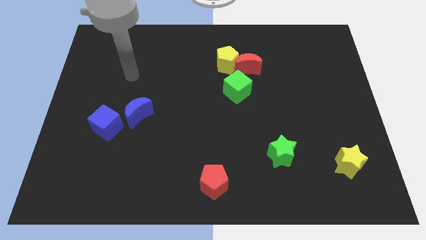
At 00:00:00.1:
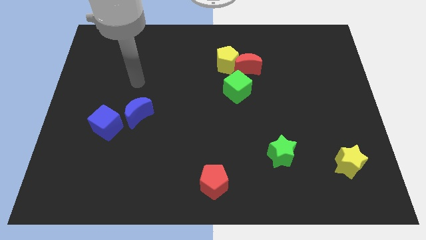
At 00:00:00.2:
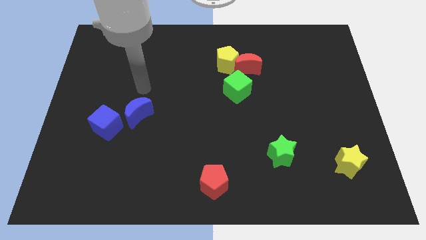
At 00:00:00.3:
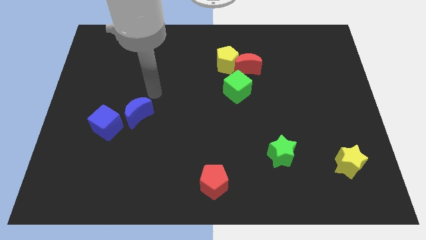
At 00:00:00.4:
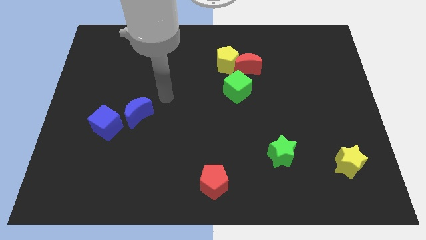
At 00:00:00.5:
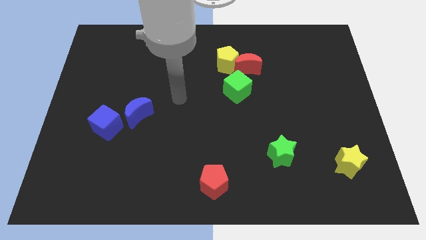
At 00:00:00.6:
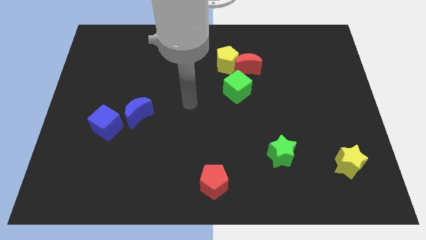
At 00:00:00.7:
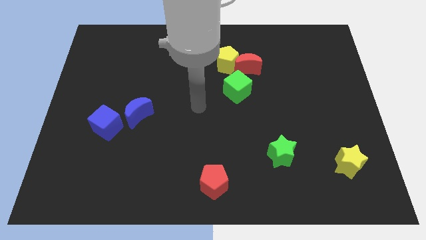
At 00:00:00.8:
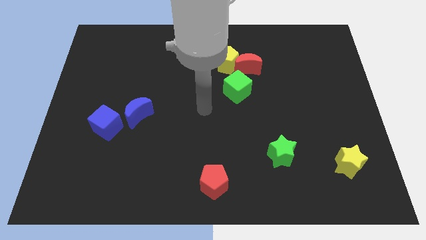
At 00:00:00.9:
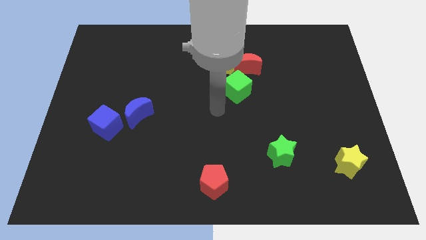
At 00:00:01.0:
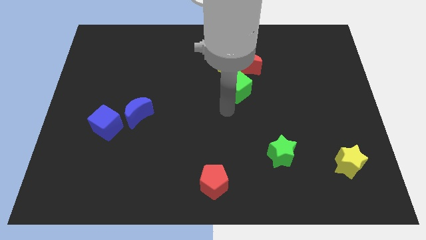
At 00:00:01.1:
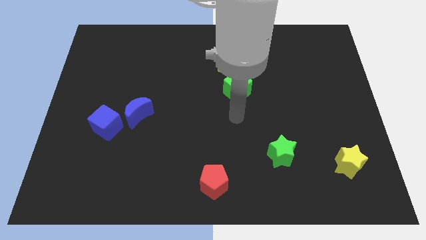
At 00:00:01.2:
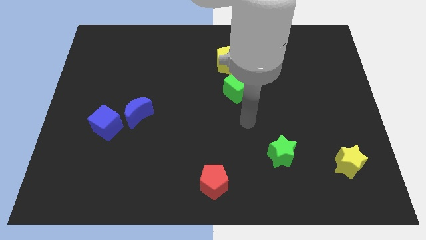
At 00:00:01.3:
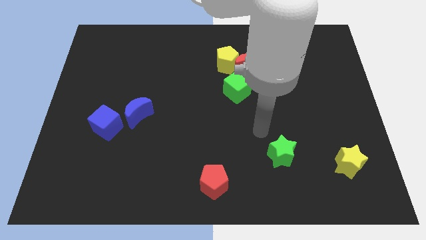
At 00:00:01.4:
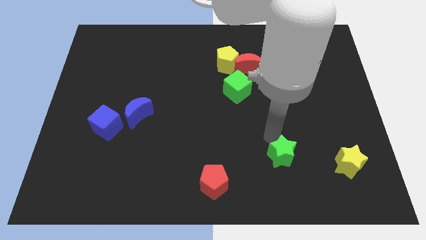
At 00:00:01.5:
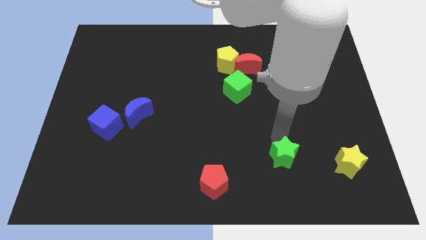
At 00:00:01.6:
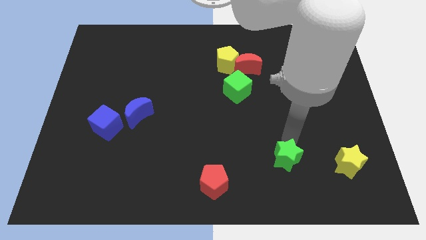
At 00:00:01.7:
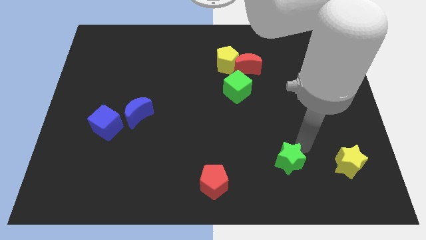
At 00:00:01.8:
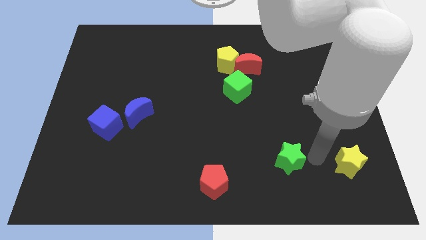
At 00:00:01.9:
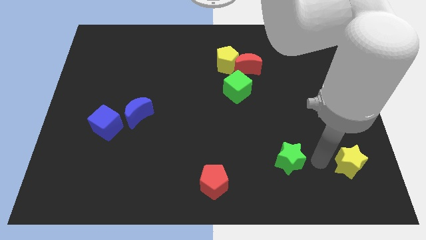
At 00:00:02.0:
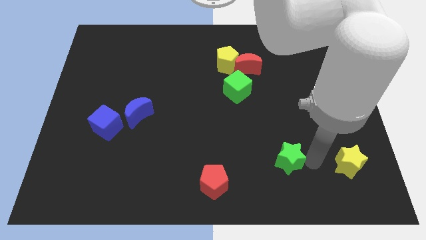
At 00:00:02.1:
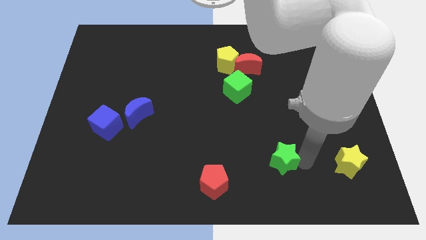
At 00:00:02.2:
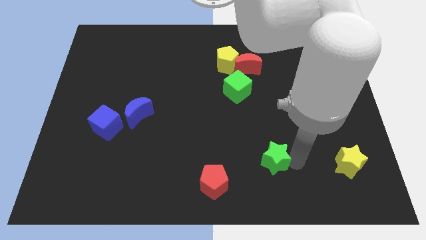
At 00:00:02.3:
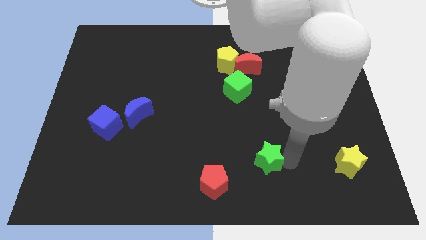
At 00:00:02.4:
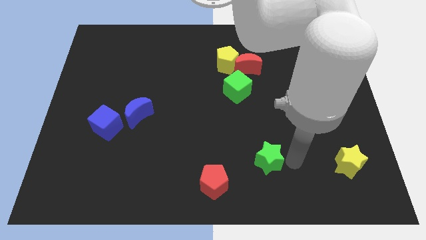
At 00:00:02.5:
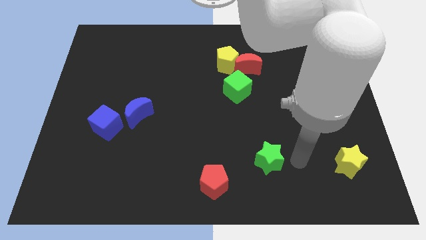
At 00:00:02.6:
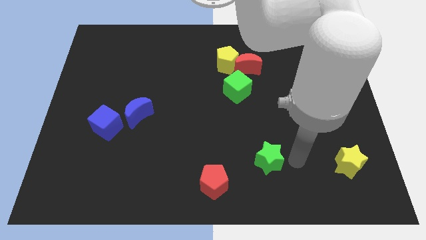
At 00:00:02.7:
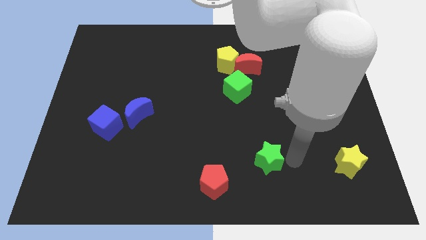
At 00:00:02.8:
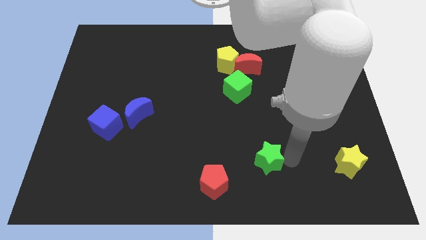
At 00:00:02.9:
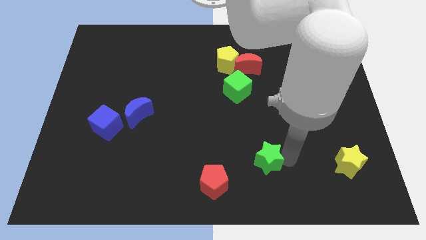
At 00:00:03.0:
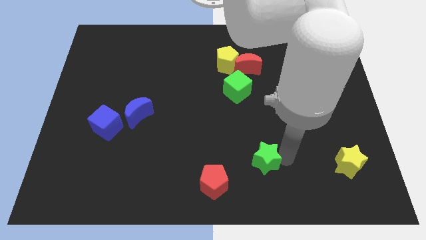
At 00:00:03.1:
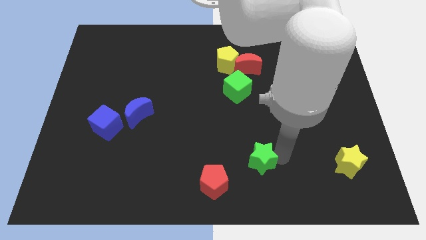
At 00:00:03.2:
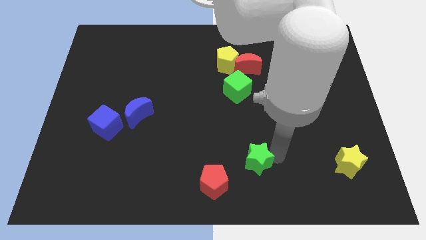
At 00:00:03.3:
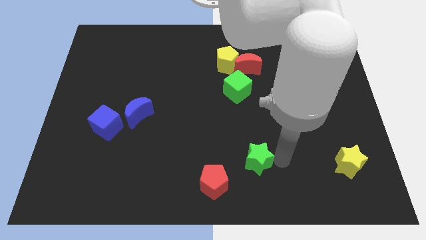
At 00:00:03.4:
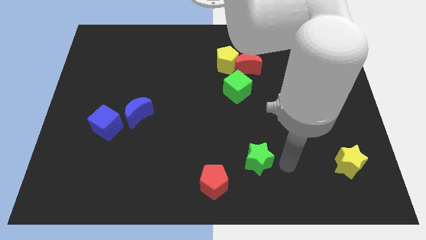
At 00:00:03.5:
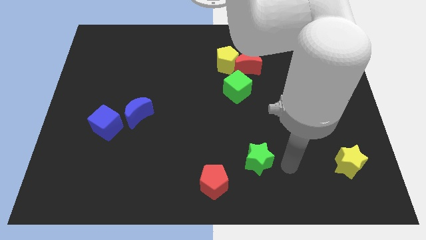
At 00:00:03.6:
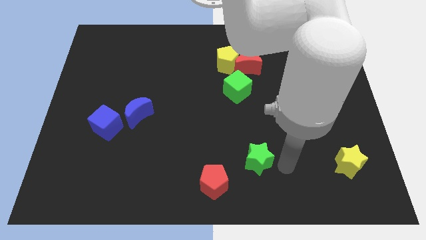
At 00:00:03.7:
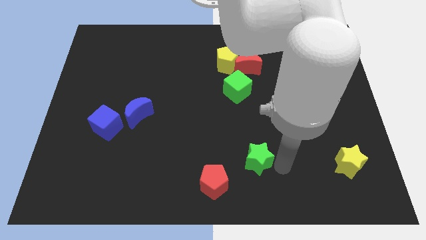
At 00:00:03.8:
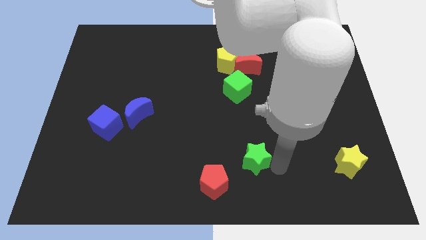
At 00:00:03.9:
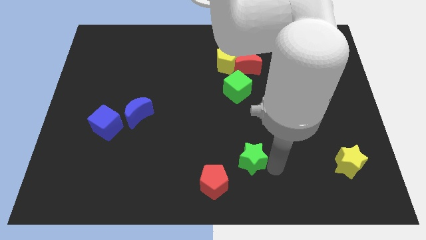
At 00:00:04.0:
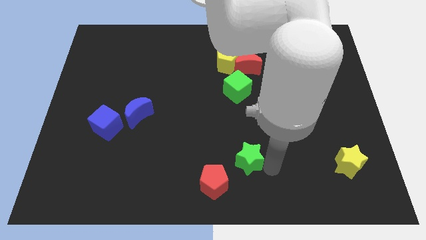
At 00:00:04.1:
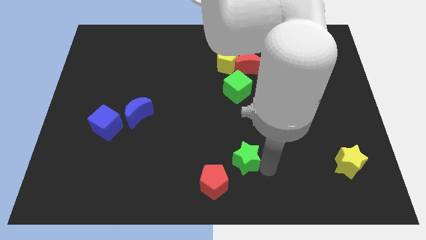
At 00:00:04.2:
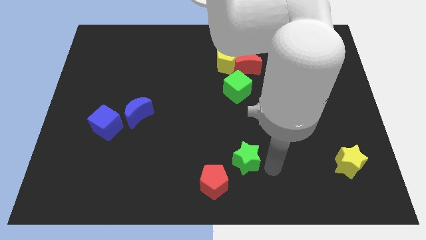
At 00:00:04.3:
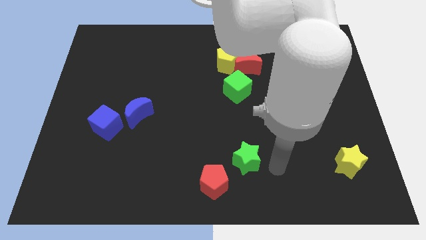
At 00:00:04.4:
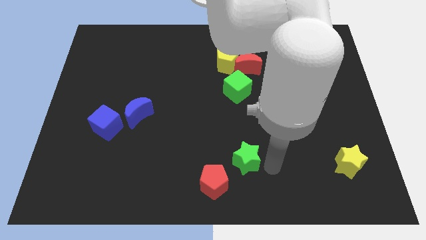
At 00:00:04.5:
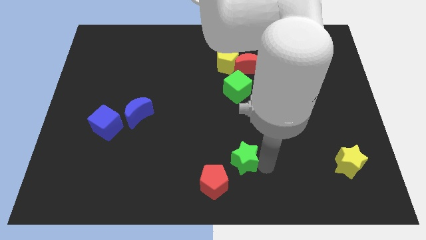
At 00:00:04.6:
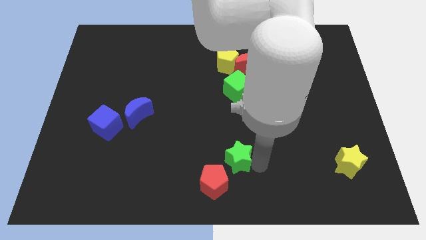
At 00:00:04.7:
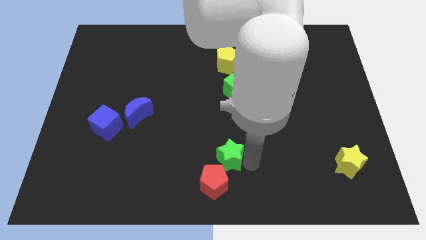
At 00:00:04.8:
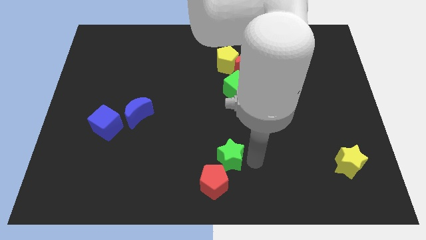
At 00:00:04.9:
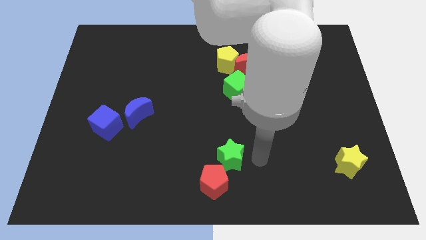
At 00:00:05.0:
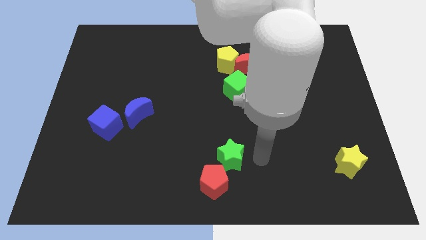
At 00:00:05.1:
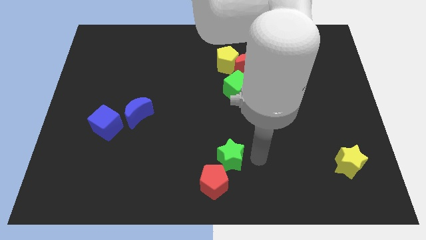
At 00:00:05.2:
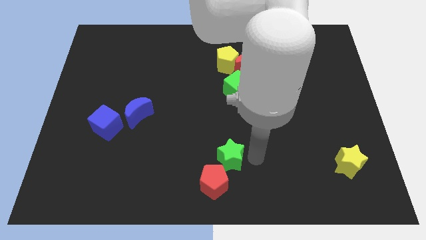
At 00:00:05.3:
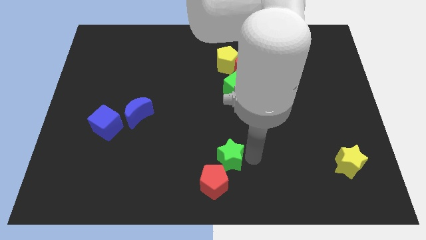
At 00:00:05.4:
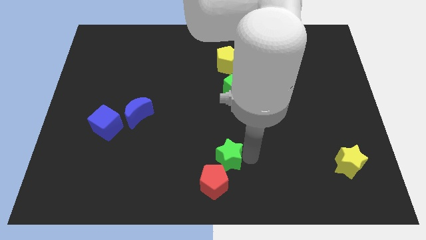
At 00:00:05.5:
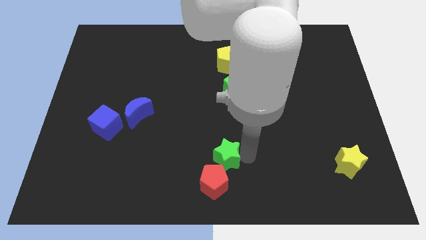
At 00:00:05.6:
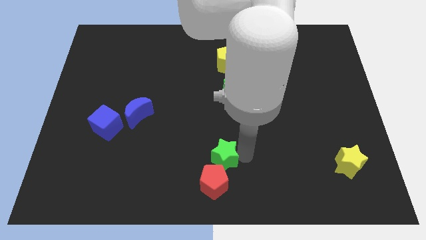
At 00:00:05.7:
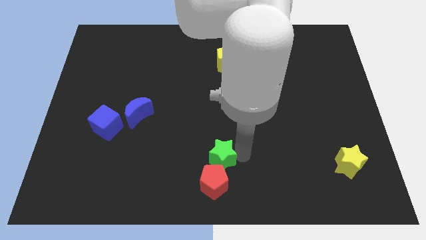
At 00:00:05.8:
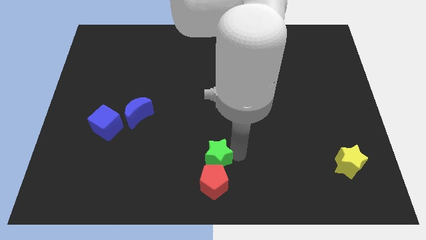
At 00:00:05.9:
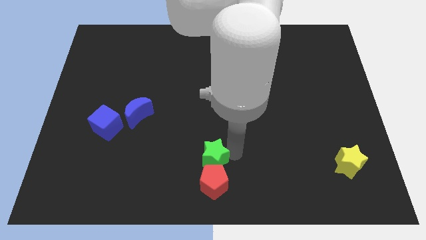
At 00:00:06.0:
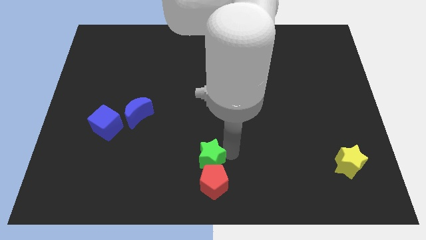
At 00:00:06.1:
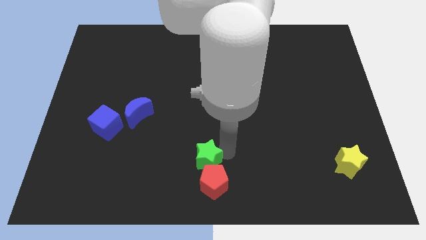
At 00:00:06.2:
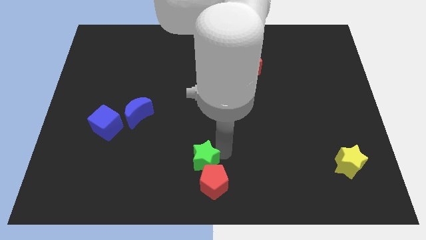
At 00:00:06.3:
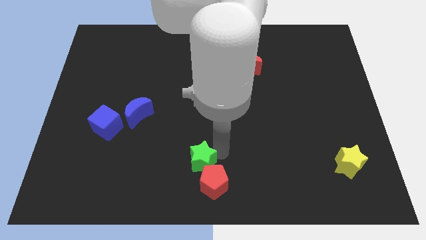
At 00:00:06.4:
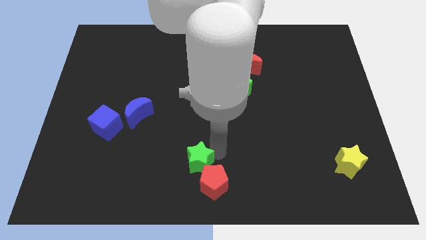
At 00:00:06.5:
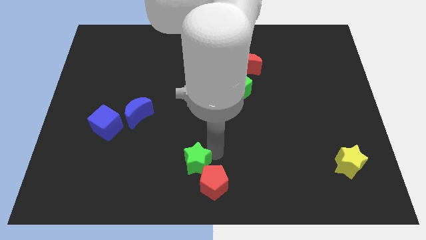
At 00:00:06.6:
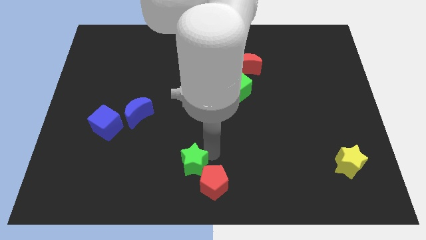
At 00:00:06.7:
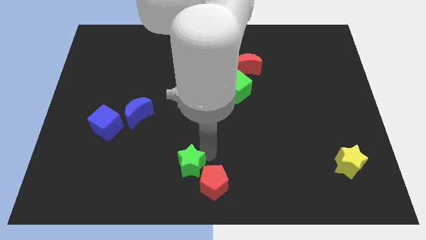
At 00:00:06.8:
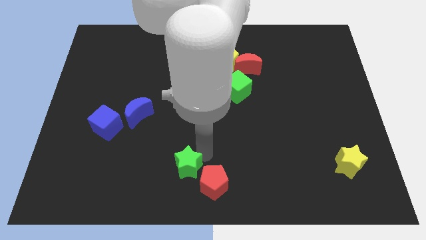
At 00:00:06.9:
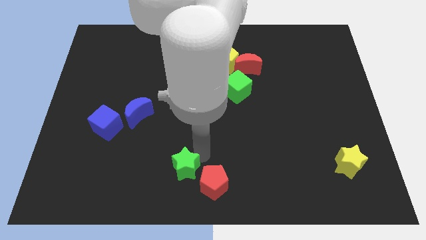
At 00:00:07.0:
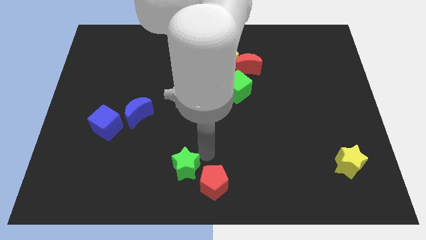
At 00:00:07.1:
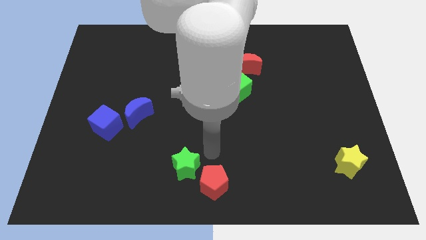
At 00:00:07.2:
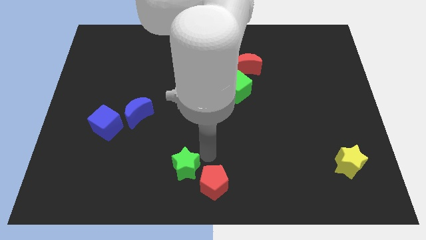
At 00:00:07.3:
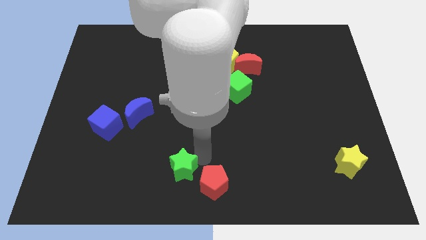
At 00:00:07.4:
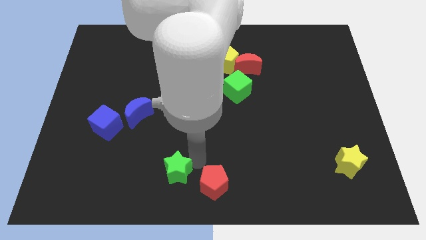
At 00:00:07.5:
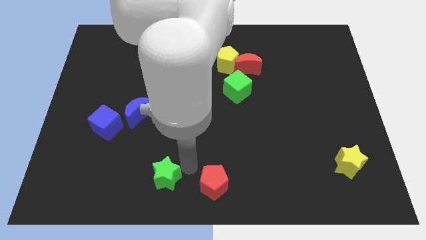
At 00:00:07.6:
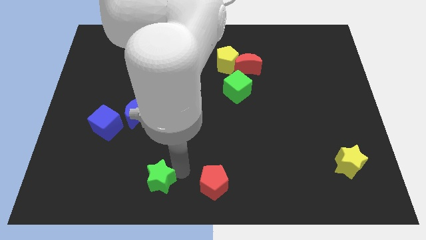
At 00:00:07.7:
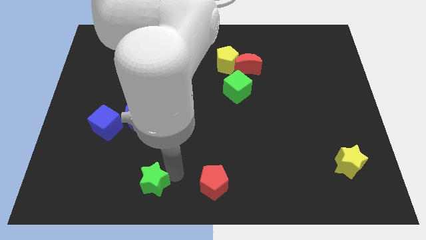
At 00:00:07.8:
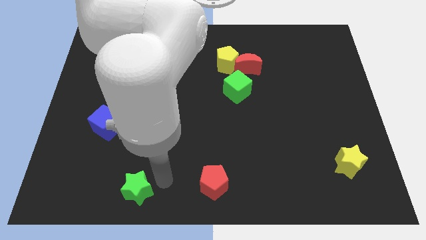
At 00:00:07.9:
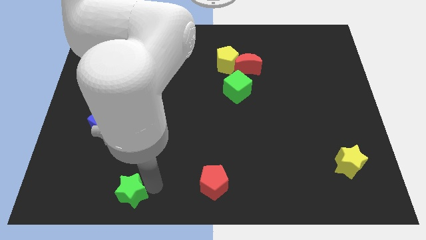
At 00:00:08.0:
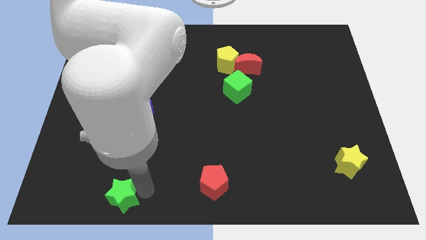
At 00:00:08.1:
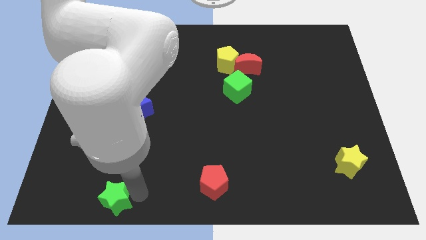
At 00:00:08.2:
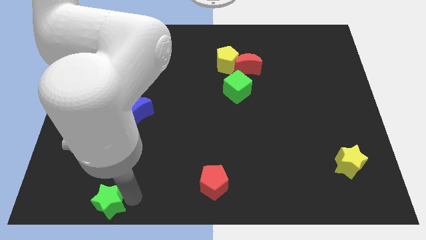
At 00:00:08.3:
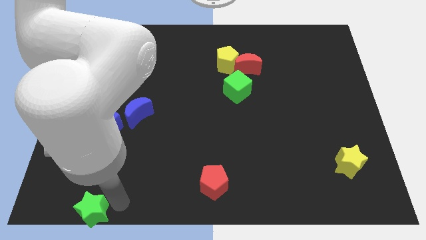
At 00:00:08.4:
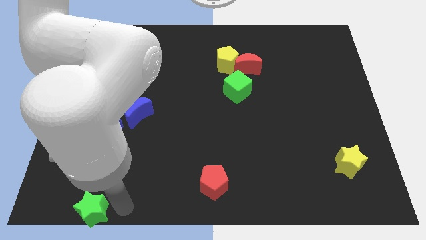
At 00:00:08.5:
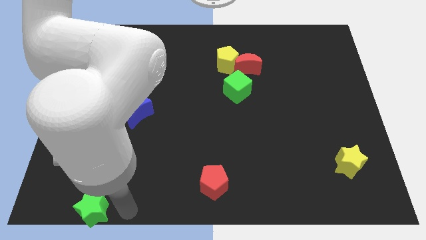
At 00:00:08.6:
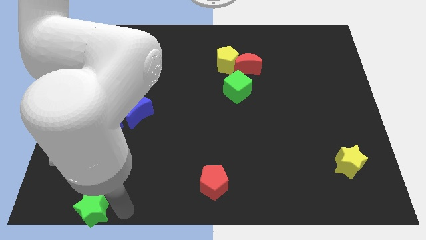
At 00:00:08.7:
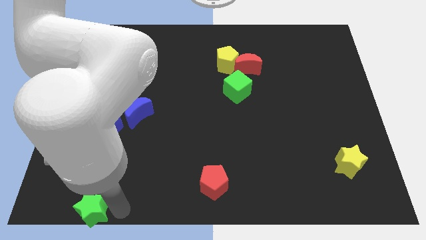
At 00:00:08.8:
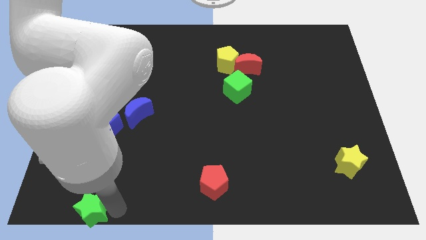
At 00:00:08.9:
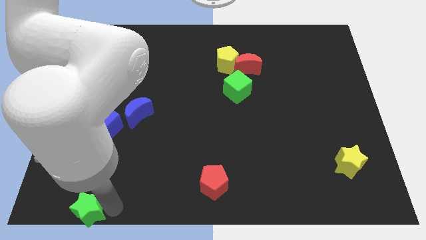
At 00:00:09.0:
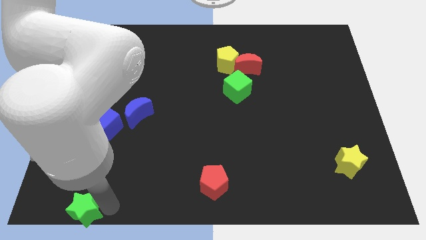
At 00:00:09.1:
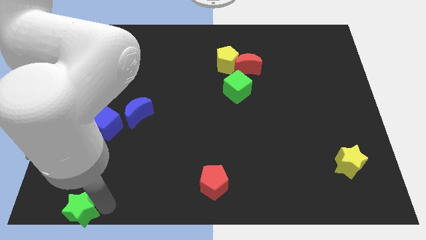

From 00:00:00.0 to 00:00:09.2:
move the green star to the lower left corner
